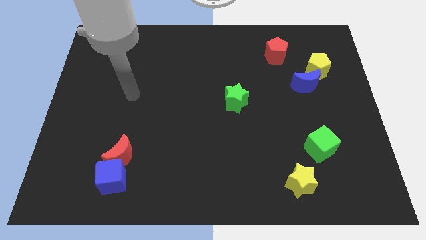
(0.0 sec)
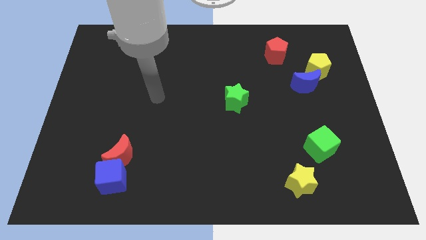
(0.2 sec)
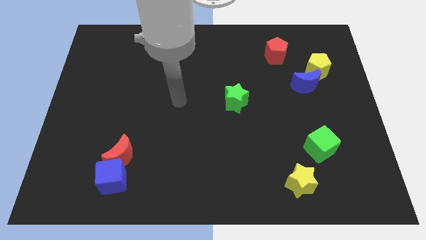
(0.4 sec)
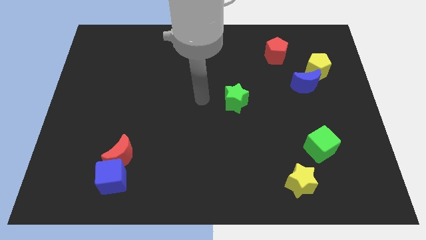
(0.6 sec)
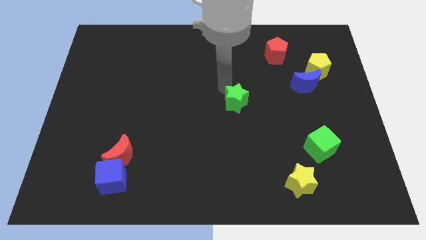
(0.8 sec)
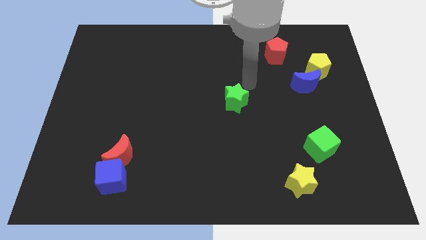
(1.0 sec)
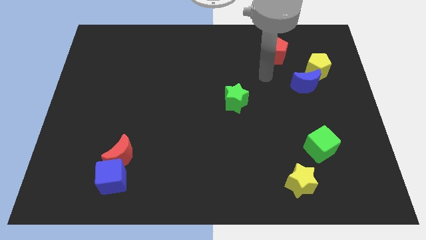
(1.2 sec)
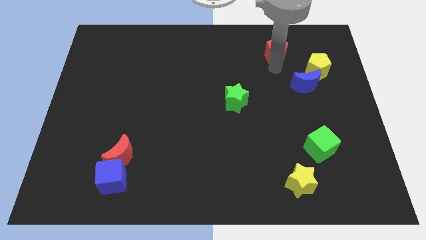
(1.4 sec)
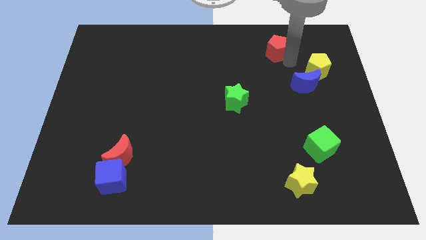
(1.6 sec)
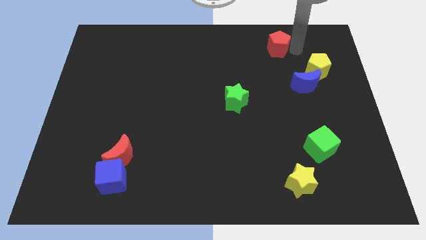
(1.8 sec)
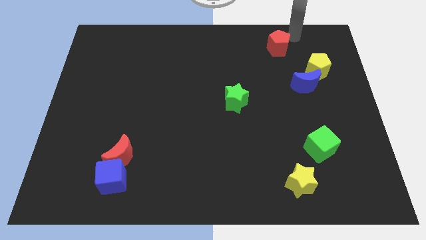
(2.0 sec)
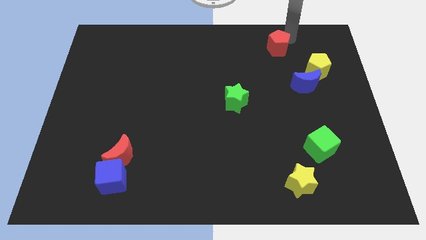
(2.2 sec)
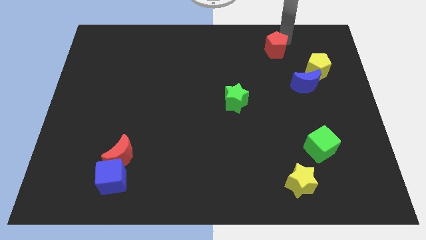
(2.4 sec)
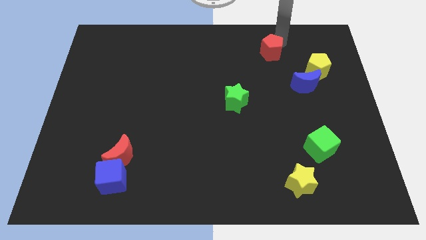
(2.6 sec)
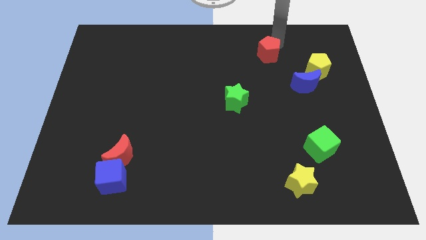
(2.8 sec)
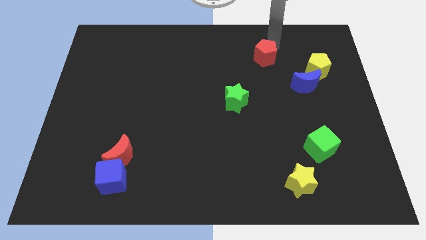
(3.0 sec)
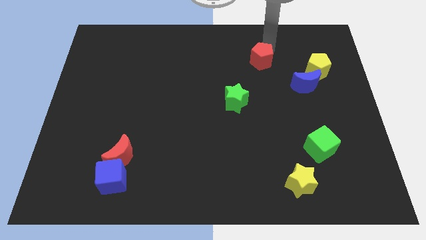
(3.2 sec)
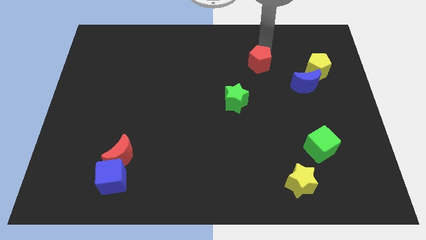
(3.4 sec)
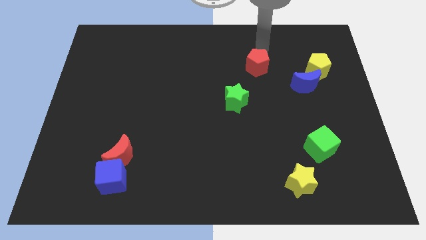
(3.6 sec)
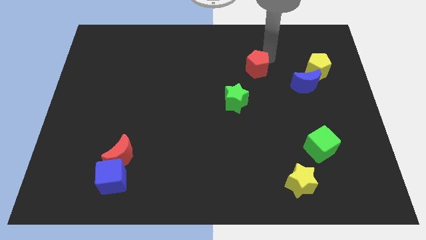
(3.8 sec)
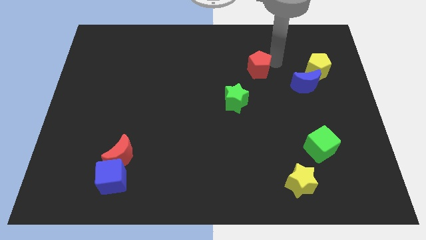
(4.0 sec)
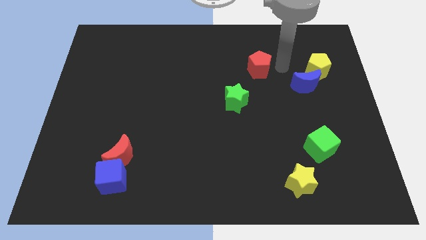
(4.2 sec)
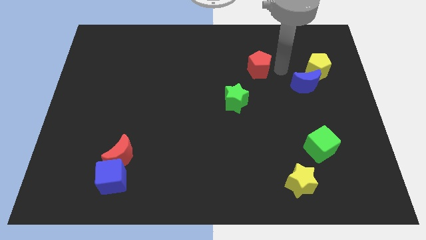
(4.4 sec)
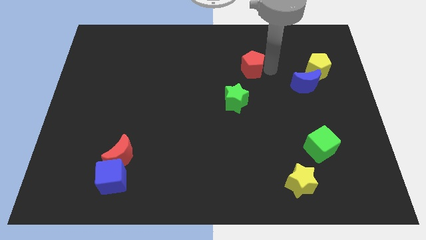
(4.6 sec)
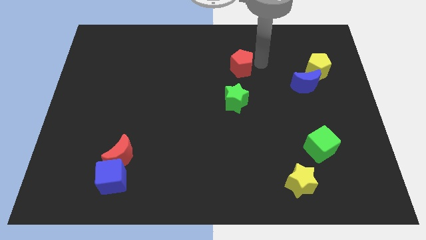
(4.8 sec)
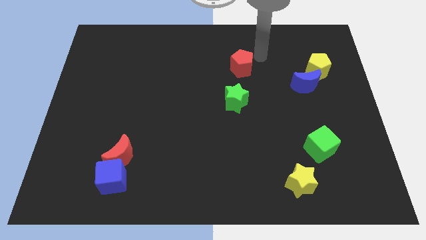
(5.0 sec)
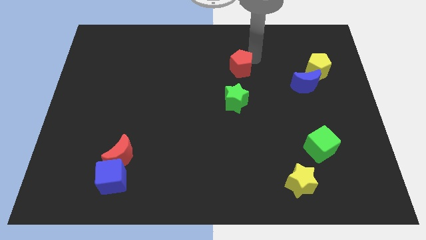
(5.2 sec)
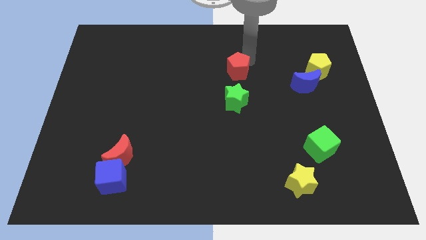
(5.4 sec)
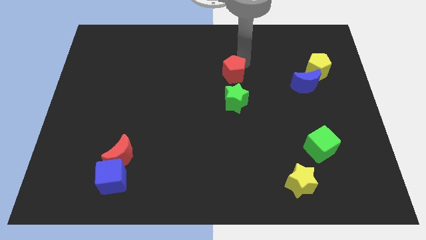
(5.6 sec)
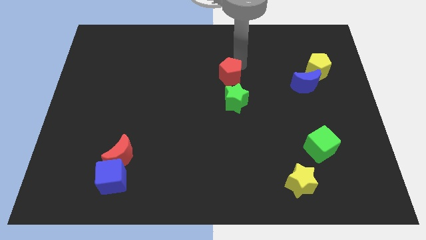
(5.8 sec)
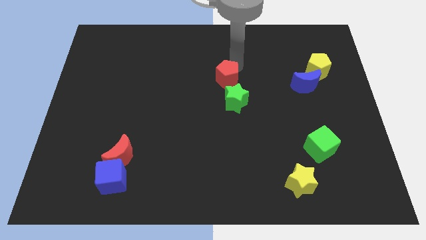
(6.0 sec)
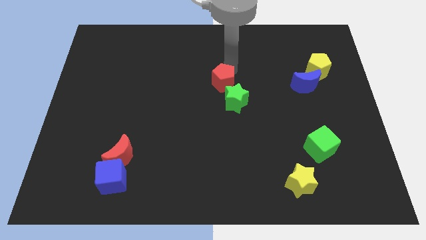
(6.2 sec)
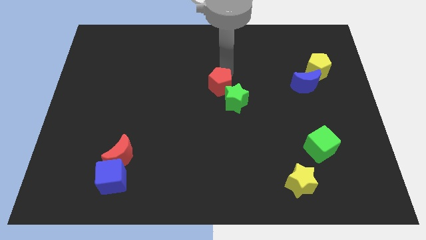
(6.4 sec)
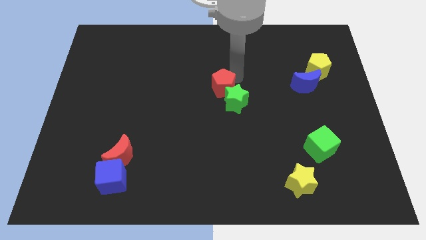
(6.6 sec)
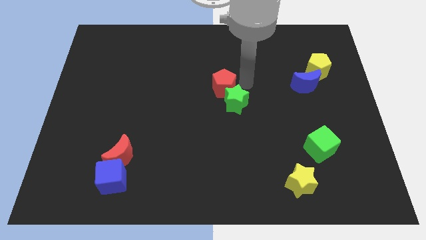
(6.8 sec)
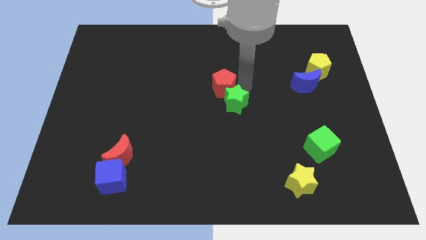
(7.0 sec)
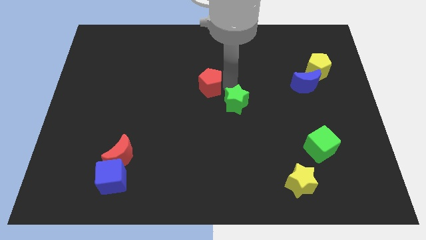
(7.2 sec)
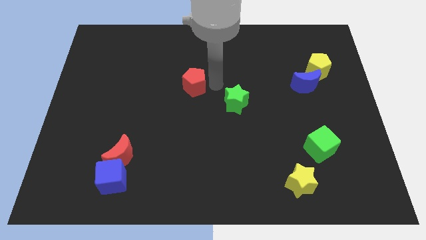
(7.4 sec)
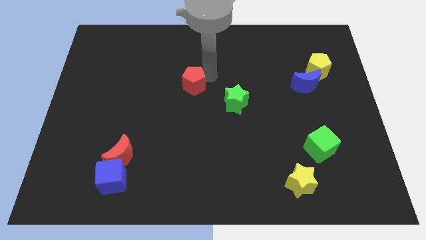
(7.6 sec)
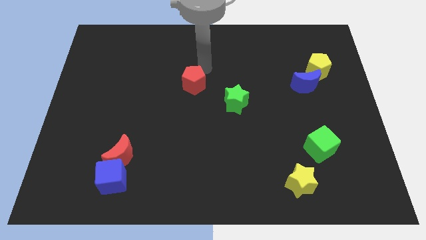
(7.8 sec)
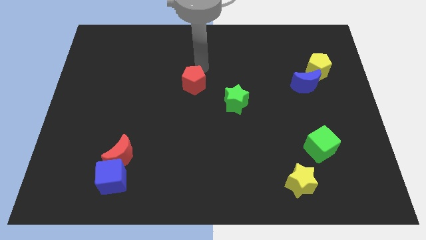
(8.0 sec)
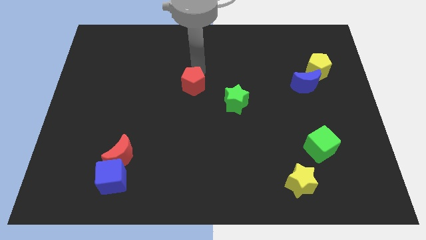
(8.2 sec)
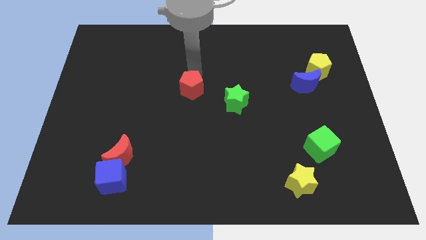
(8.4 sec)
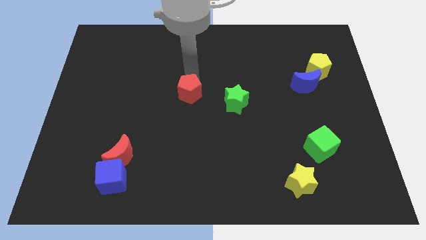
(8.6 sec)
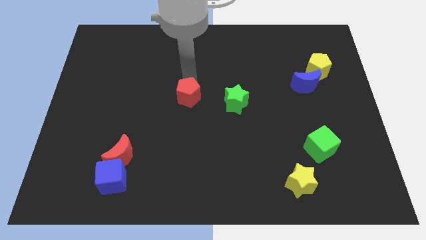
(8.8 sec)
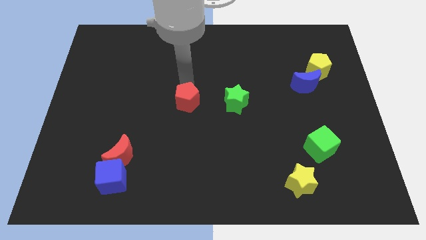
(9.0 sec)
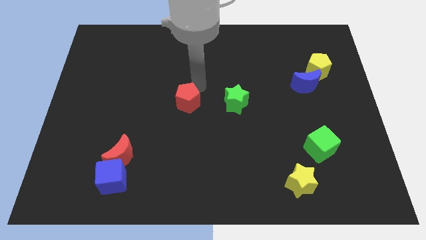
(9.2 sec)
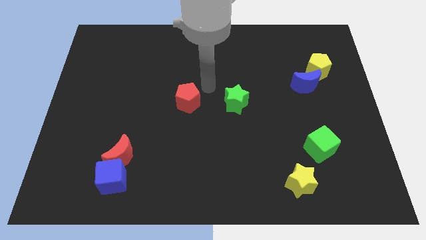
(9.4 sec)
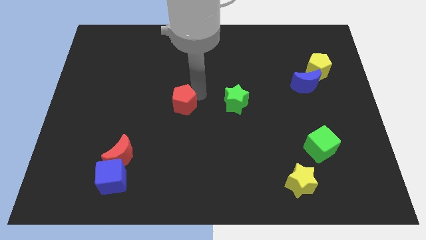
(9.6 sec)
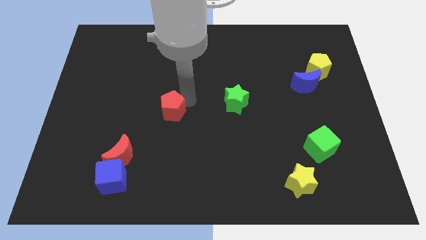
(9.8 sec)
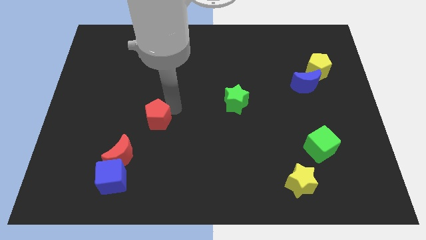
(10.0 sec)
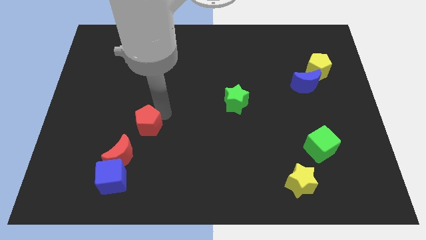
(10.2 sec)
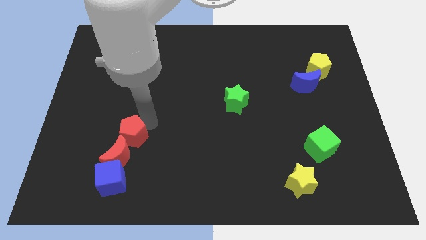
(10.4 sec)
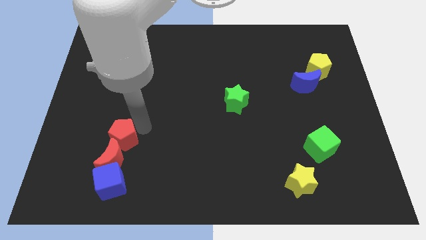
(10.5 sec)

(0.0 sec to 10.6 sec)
slide the red pentagon towards the red moon

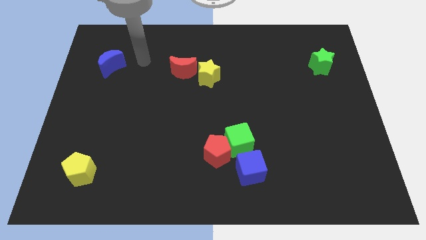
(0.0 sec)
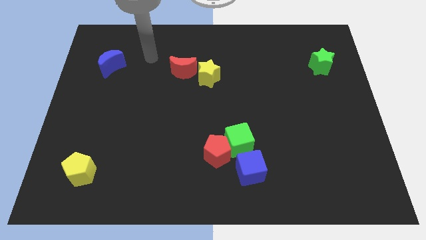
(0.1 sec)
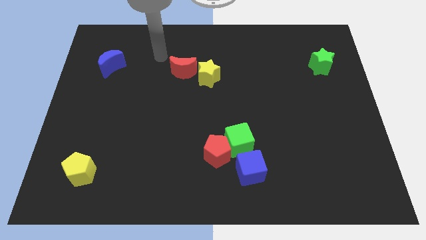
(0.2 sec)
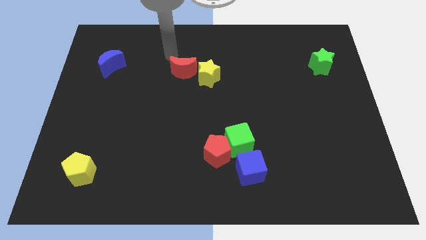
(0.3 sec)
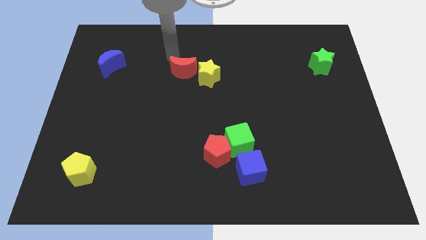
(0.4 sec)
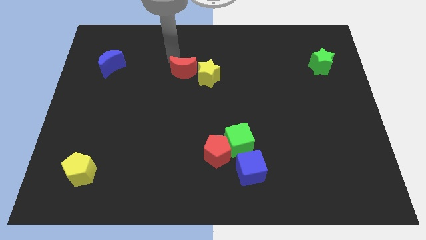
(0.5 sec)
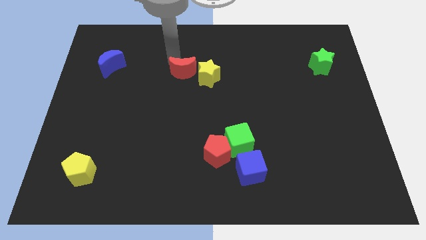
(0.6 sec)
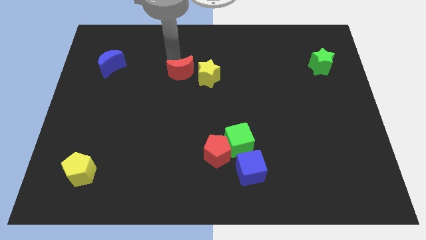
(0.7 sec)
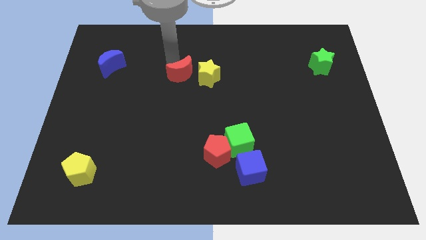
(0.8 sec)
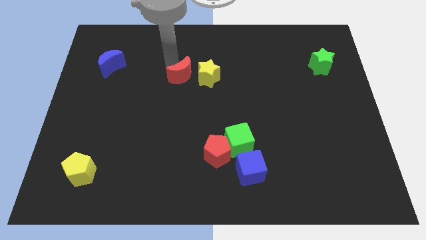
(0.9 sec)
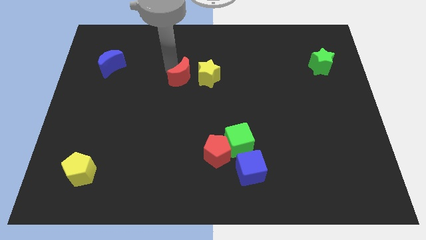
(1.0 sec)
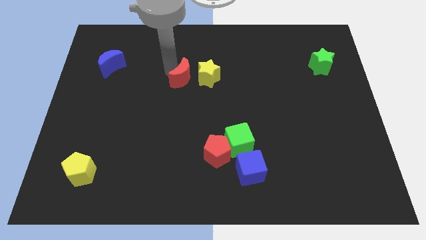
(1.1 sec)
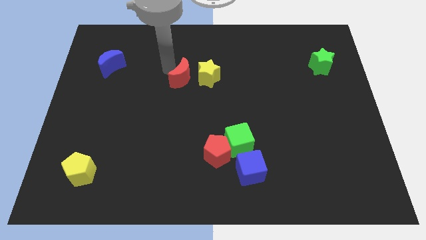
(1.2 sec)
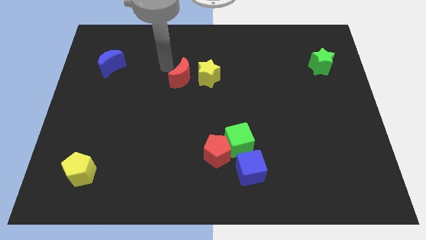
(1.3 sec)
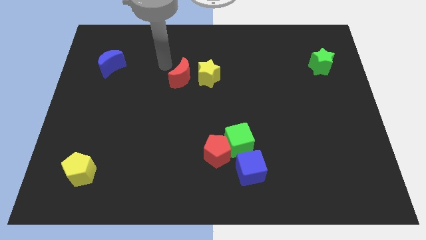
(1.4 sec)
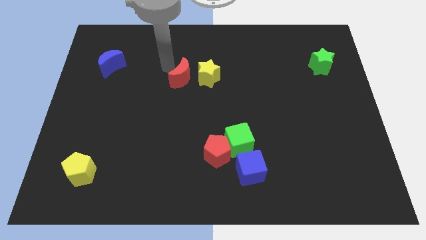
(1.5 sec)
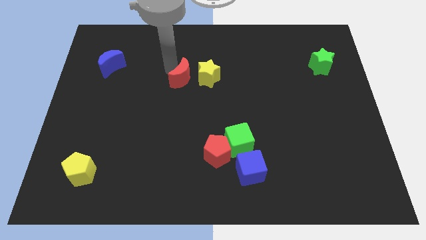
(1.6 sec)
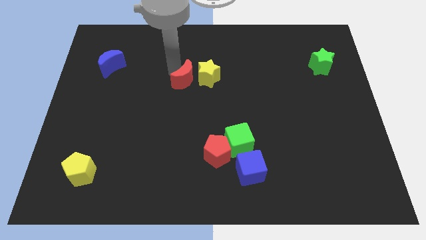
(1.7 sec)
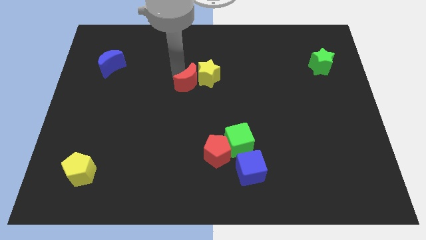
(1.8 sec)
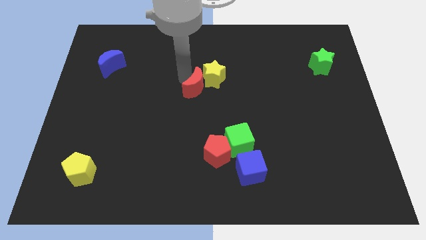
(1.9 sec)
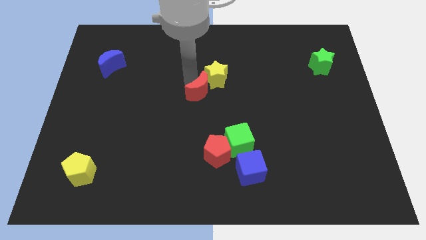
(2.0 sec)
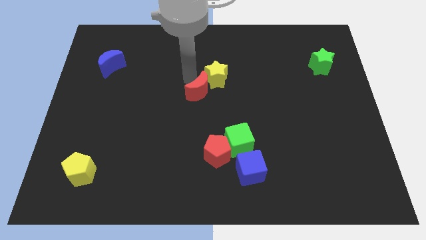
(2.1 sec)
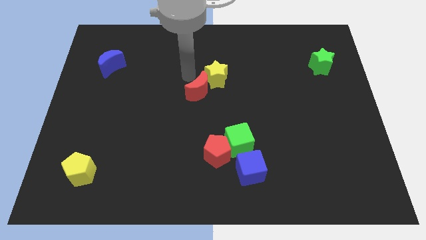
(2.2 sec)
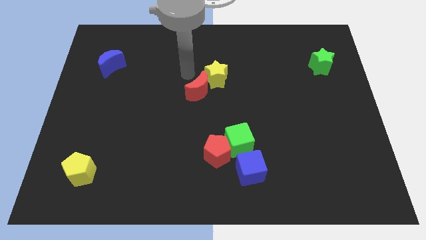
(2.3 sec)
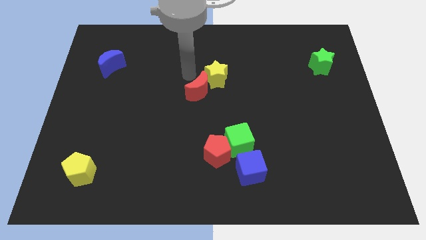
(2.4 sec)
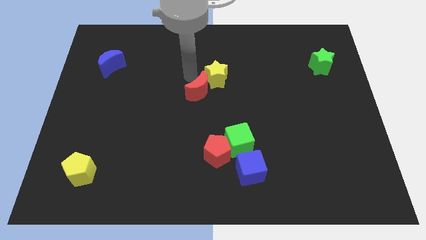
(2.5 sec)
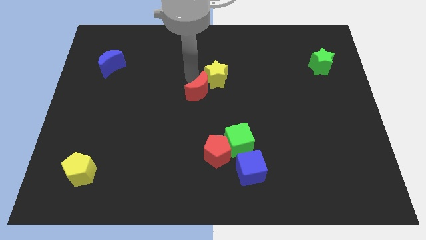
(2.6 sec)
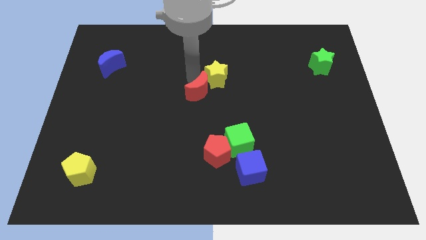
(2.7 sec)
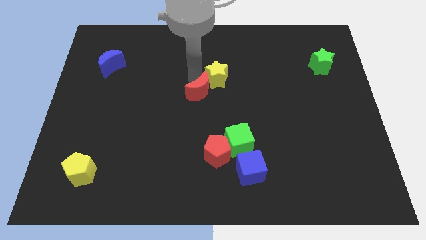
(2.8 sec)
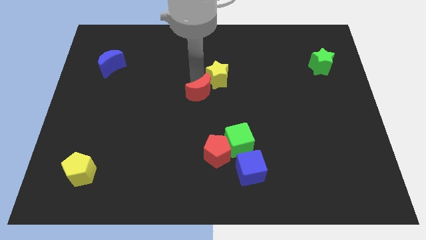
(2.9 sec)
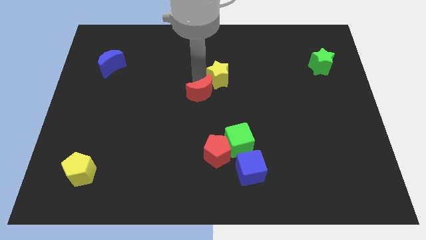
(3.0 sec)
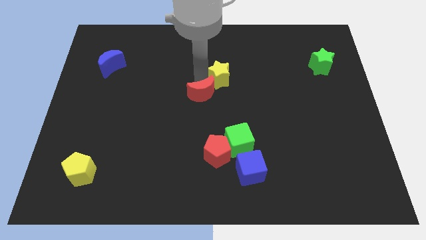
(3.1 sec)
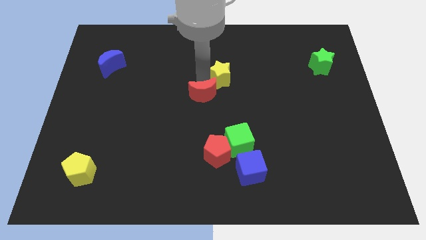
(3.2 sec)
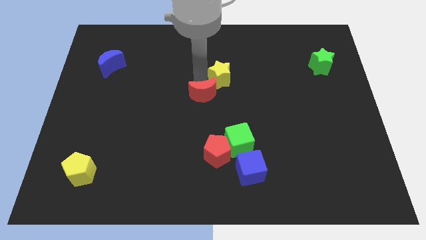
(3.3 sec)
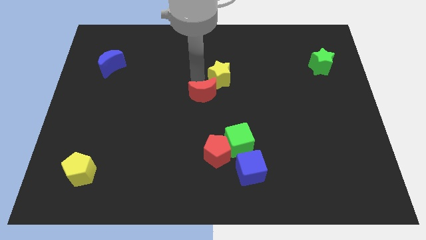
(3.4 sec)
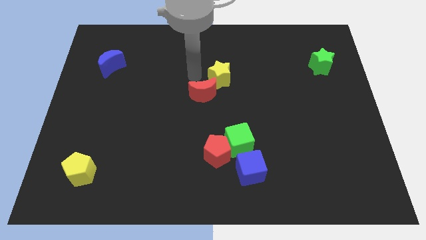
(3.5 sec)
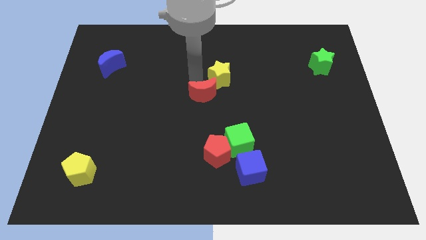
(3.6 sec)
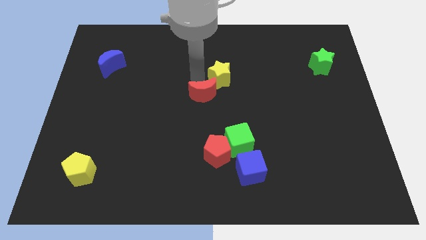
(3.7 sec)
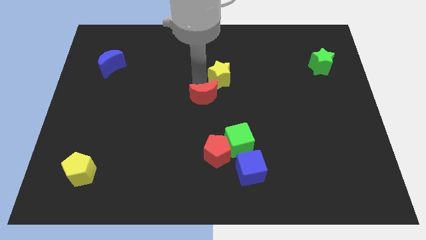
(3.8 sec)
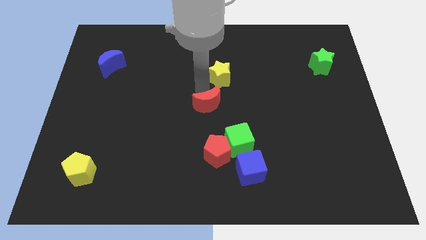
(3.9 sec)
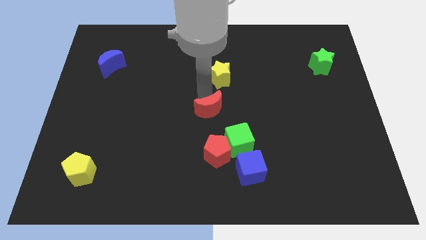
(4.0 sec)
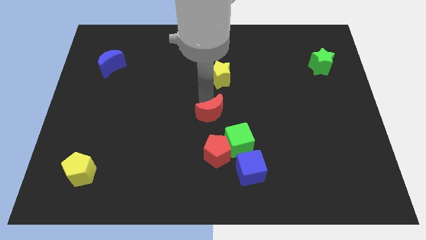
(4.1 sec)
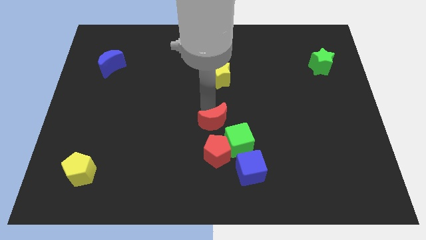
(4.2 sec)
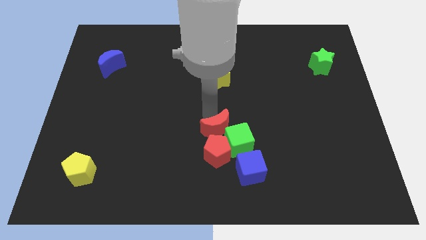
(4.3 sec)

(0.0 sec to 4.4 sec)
move the red moon next to the green cube
